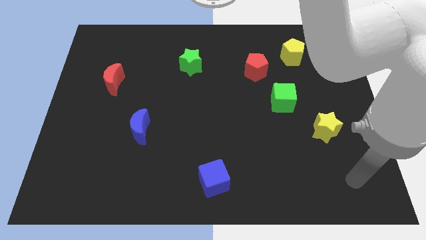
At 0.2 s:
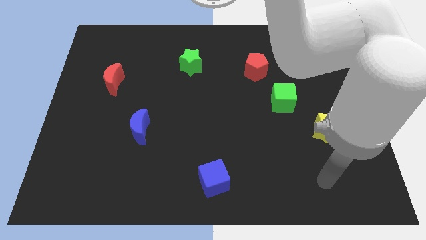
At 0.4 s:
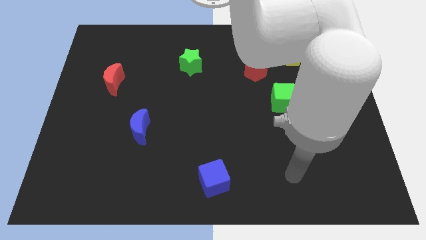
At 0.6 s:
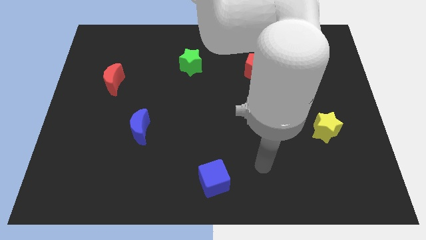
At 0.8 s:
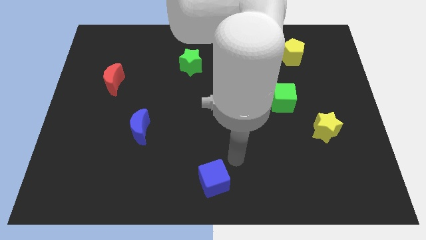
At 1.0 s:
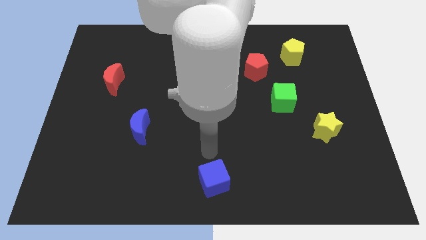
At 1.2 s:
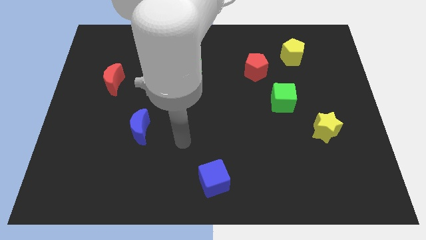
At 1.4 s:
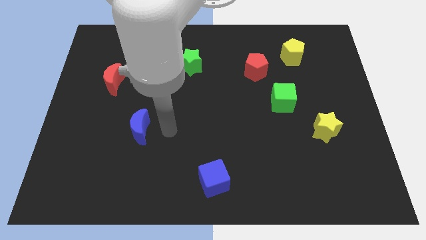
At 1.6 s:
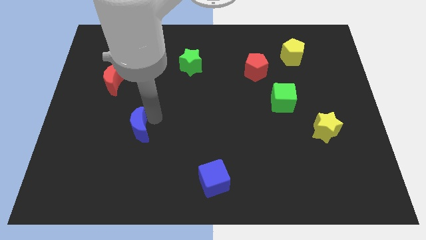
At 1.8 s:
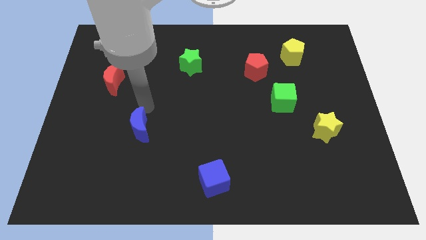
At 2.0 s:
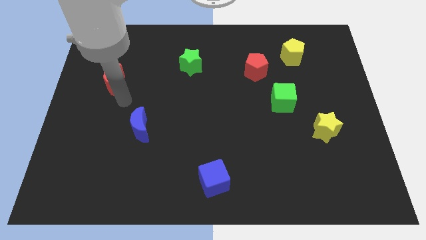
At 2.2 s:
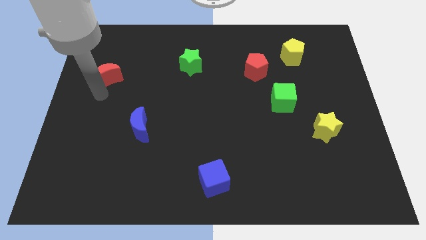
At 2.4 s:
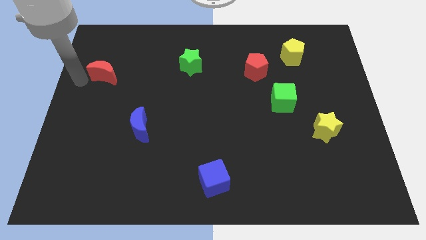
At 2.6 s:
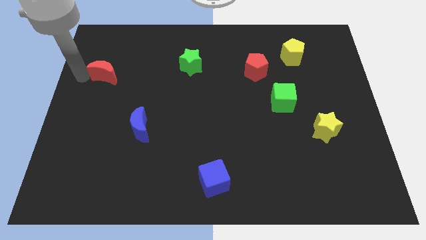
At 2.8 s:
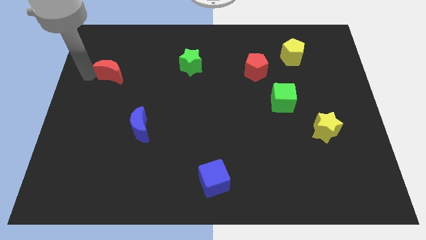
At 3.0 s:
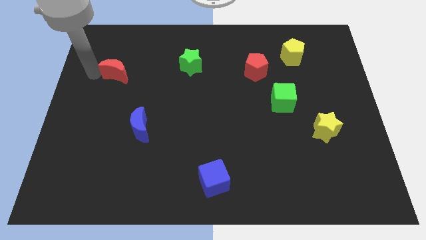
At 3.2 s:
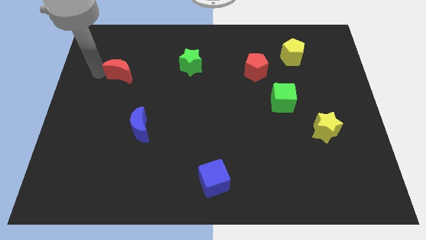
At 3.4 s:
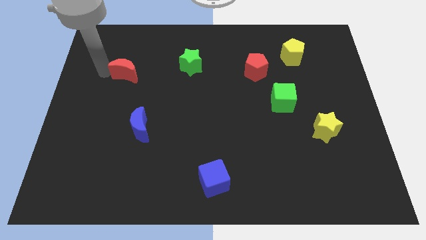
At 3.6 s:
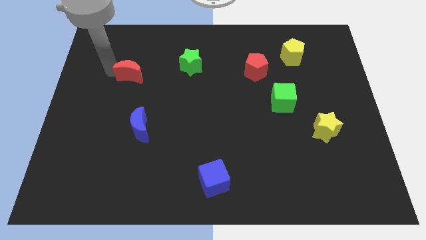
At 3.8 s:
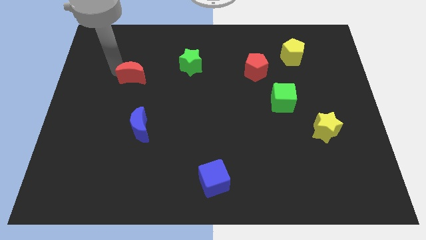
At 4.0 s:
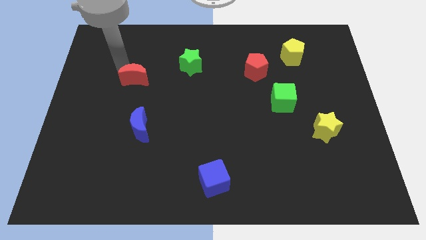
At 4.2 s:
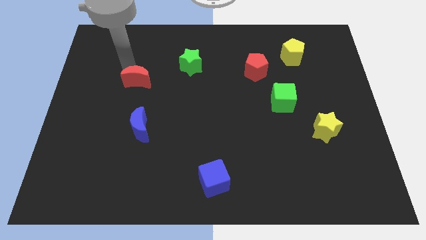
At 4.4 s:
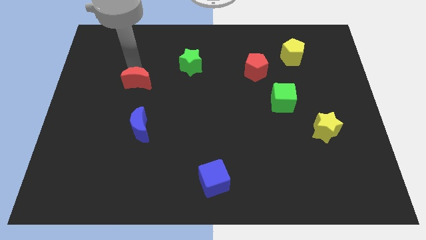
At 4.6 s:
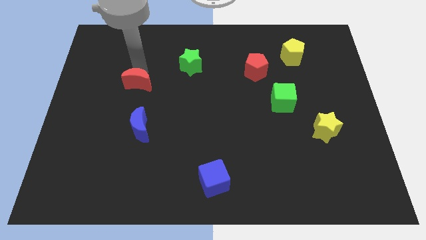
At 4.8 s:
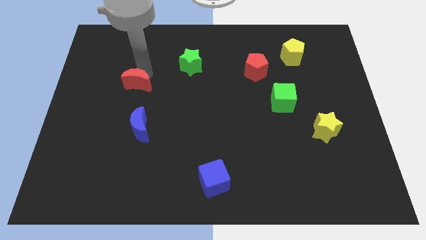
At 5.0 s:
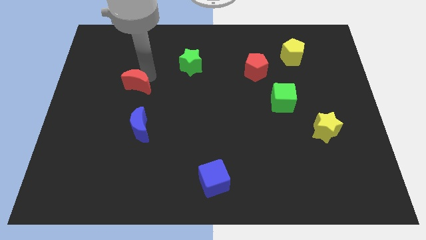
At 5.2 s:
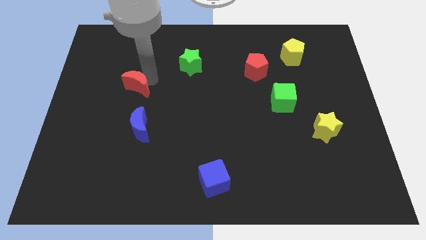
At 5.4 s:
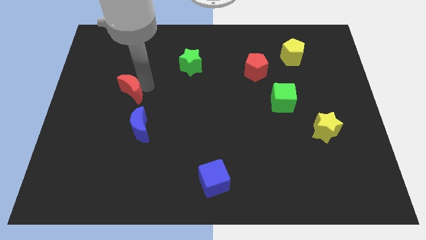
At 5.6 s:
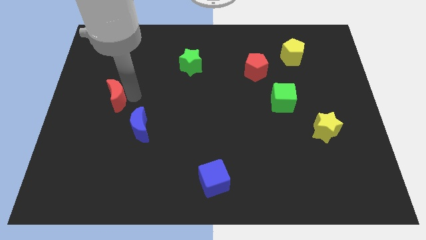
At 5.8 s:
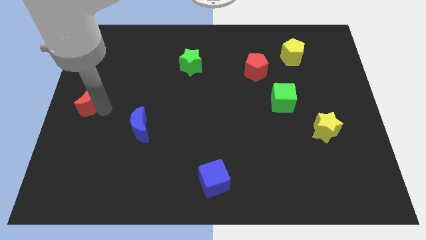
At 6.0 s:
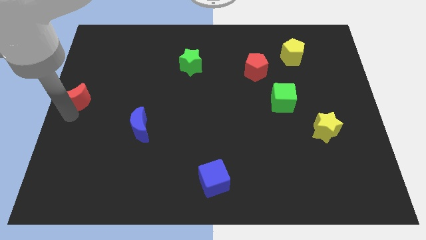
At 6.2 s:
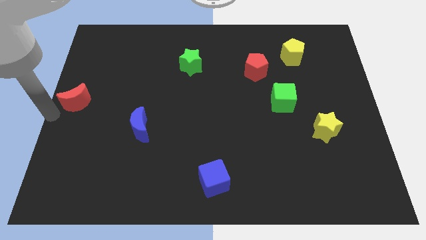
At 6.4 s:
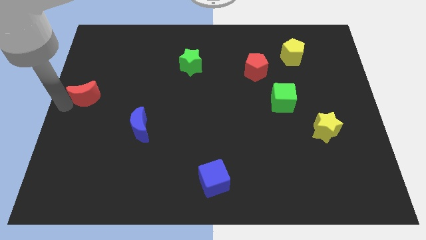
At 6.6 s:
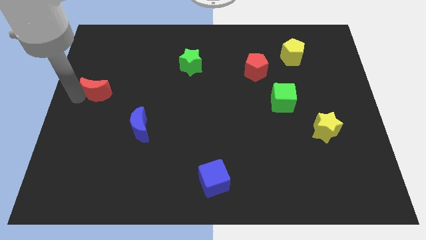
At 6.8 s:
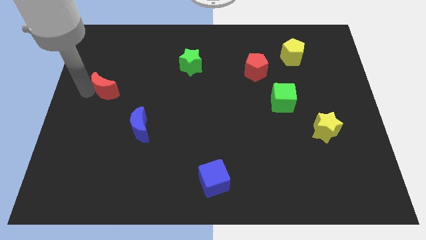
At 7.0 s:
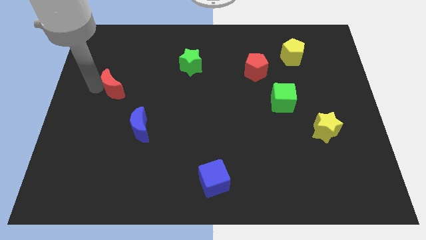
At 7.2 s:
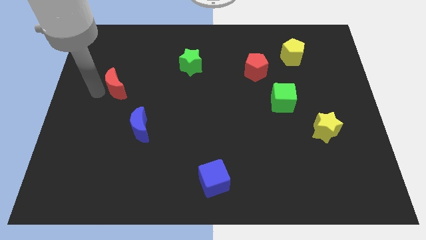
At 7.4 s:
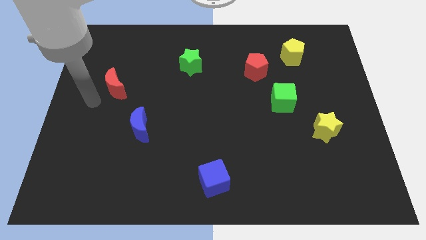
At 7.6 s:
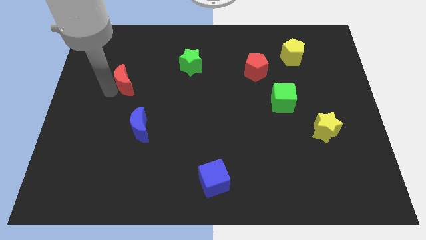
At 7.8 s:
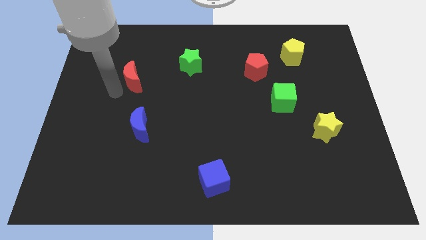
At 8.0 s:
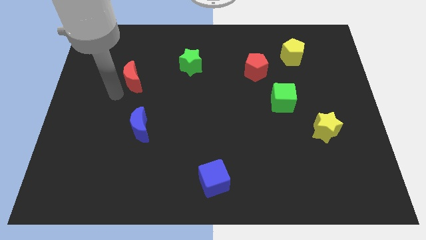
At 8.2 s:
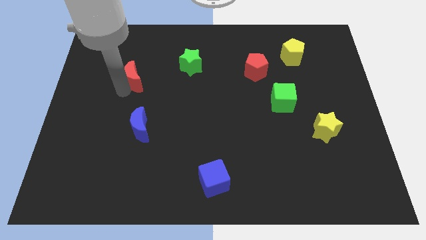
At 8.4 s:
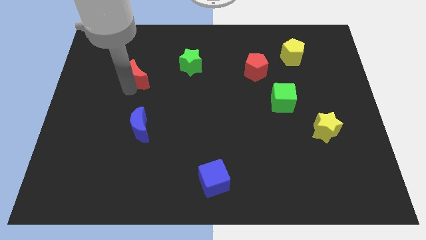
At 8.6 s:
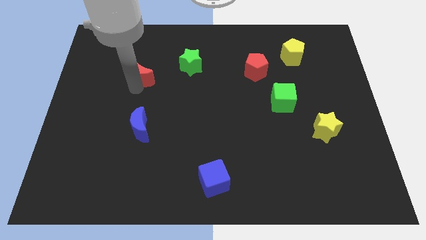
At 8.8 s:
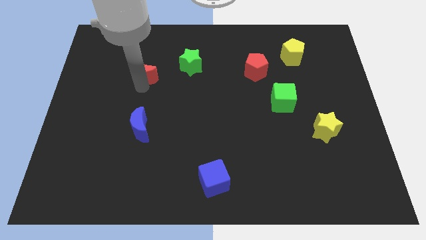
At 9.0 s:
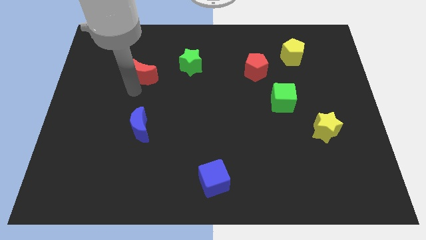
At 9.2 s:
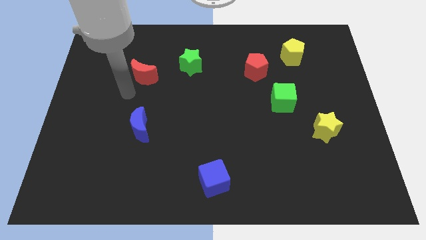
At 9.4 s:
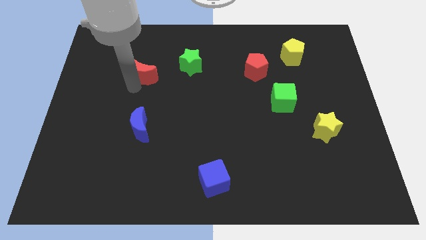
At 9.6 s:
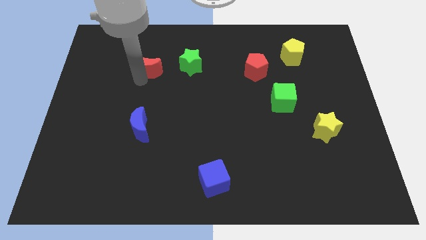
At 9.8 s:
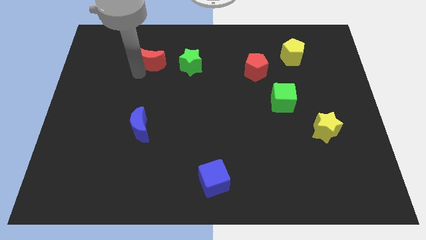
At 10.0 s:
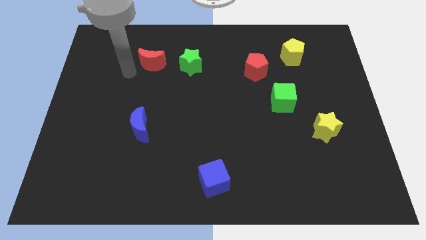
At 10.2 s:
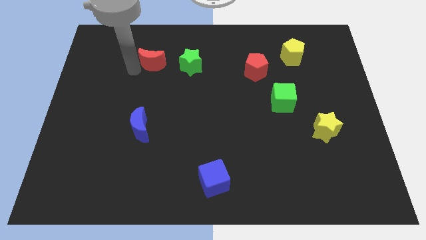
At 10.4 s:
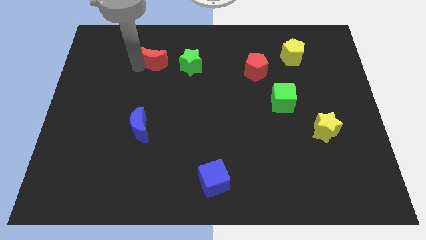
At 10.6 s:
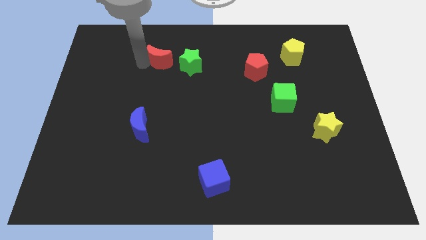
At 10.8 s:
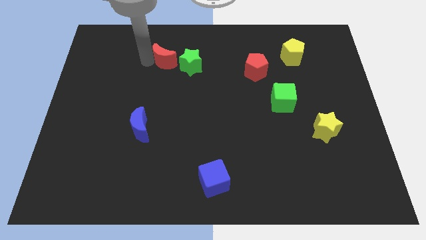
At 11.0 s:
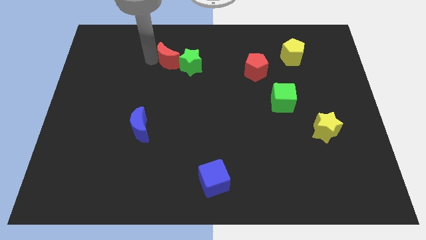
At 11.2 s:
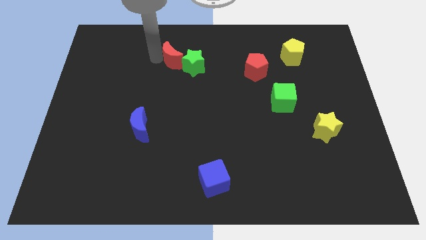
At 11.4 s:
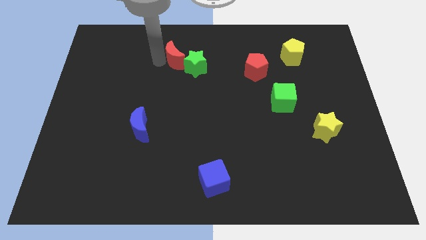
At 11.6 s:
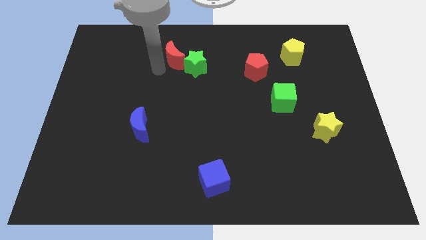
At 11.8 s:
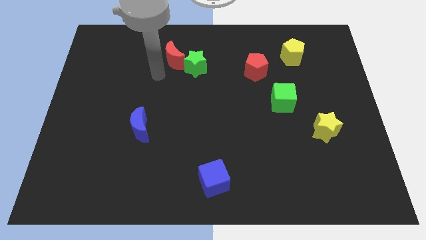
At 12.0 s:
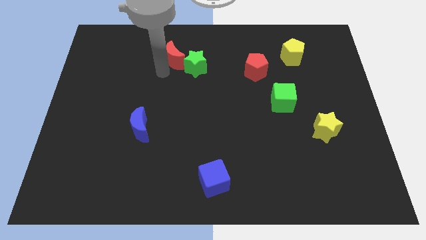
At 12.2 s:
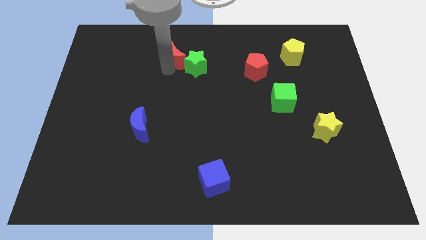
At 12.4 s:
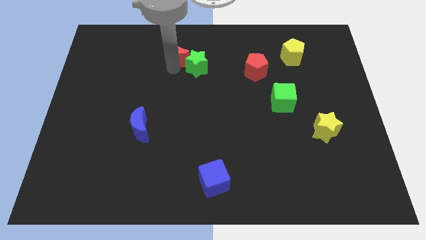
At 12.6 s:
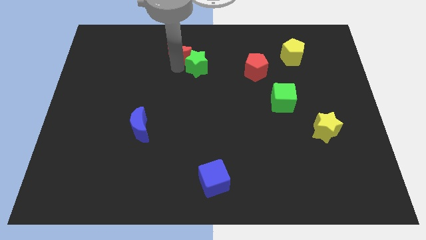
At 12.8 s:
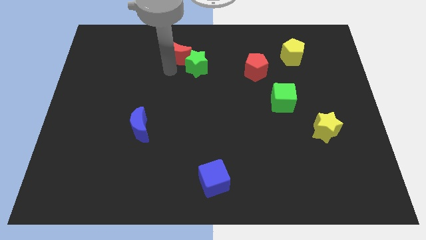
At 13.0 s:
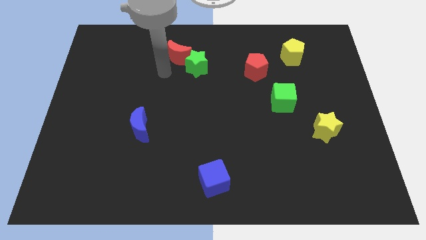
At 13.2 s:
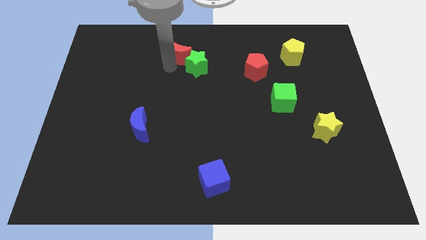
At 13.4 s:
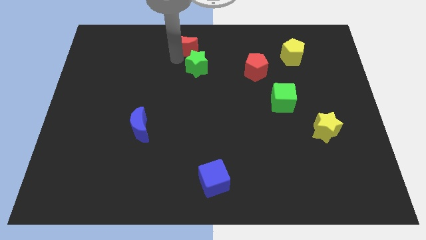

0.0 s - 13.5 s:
slide the red moon to the towards your base
